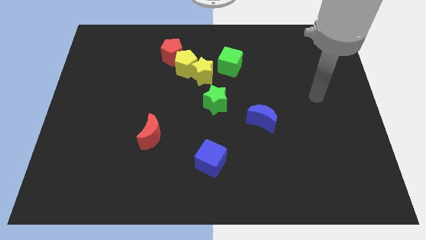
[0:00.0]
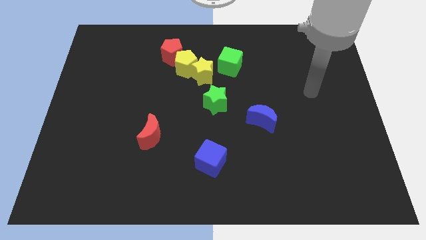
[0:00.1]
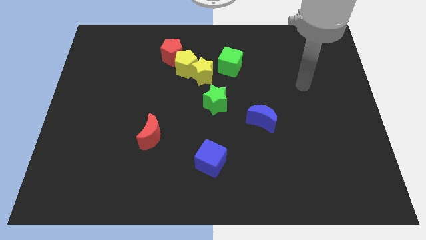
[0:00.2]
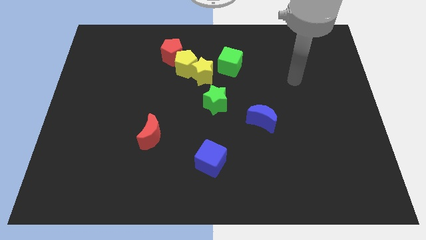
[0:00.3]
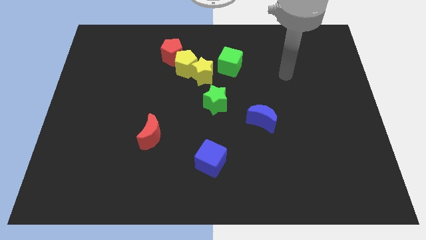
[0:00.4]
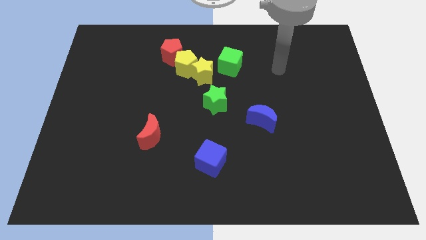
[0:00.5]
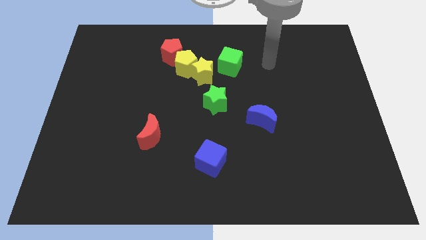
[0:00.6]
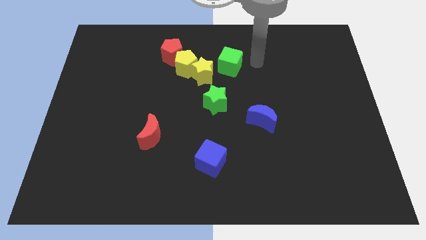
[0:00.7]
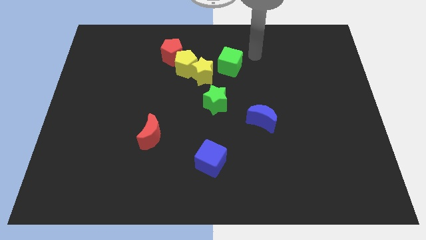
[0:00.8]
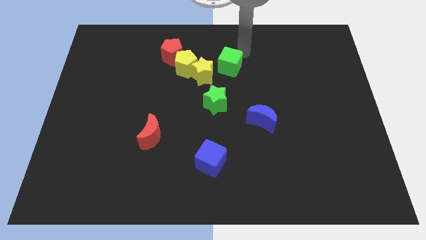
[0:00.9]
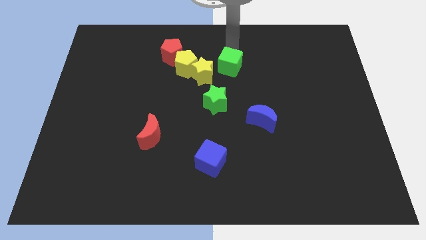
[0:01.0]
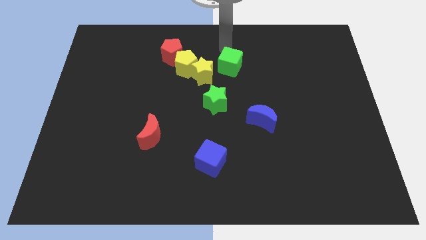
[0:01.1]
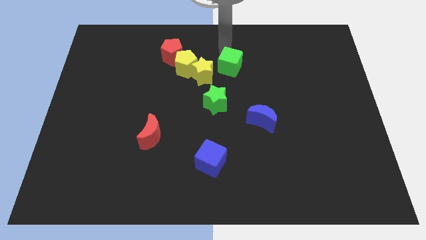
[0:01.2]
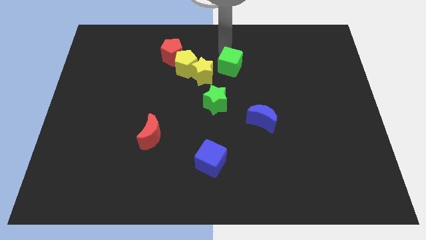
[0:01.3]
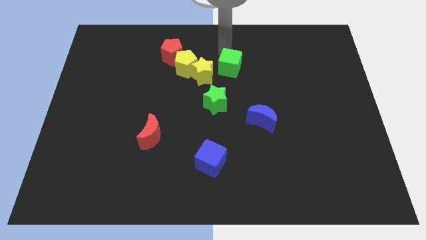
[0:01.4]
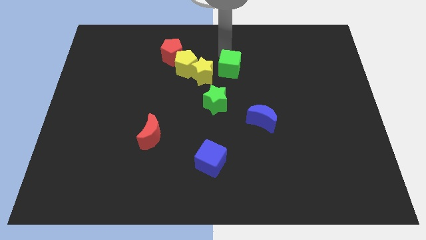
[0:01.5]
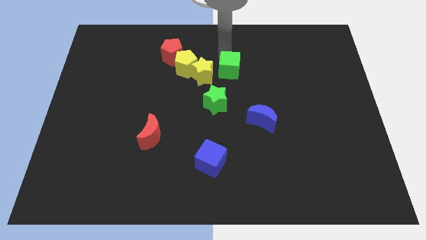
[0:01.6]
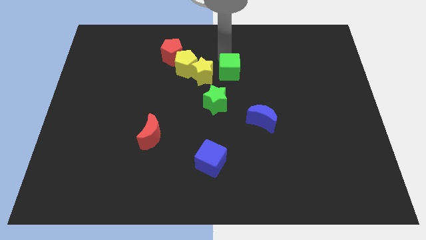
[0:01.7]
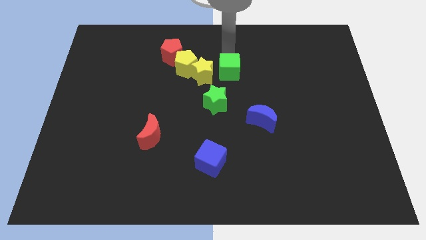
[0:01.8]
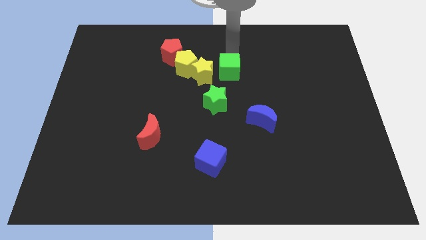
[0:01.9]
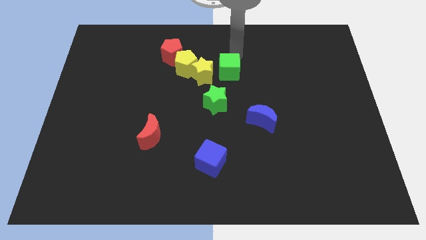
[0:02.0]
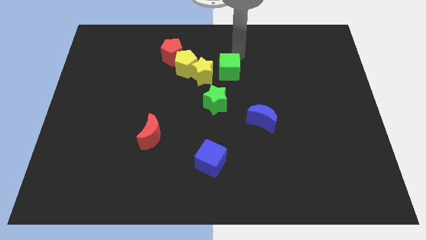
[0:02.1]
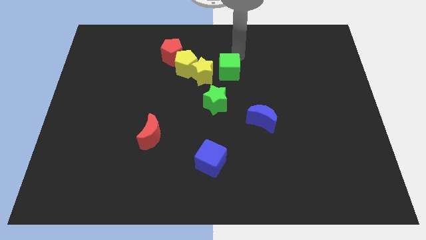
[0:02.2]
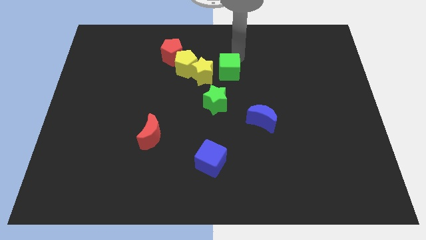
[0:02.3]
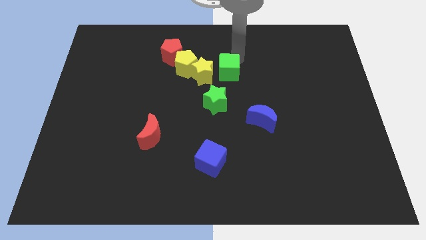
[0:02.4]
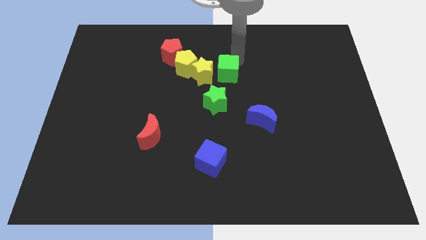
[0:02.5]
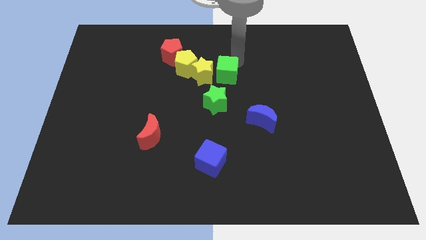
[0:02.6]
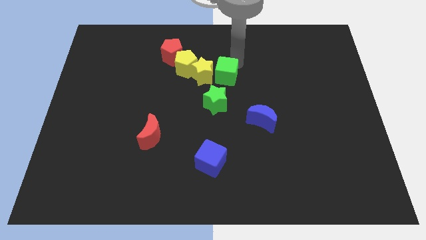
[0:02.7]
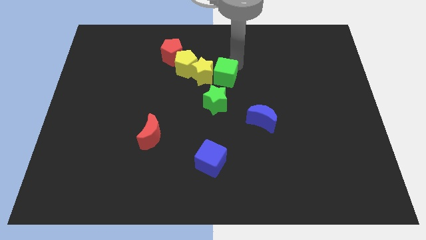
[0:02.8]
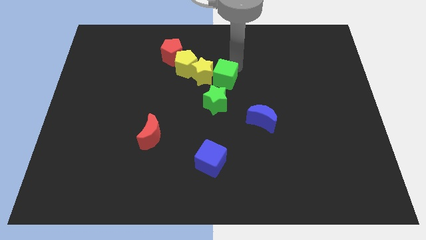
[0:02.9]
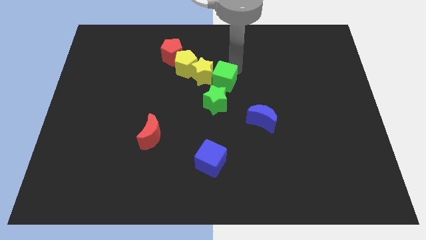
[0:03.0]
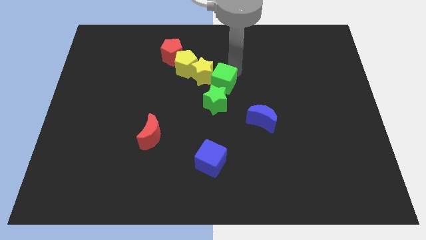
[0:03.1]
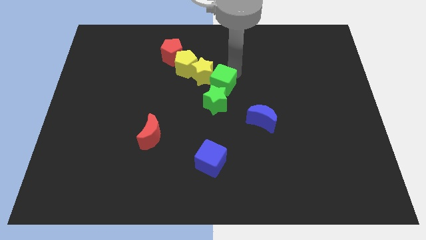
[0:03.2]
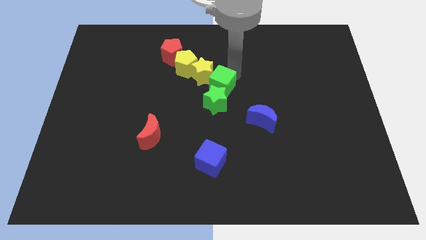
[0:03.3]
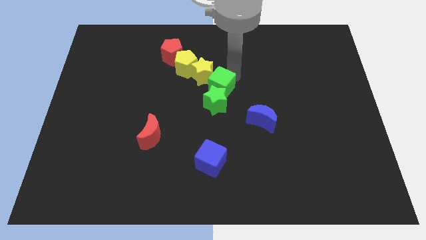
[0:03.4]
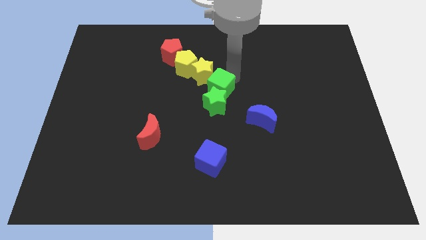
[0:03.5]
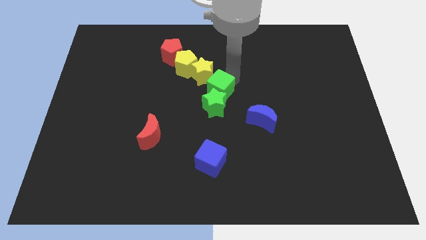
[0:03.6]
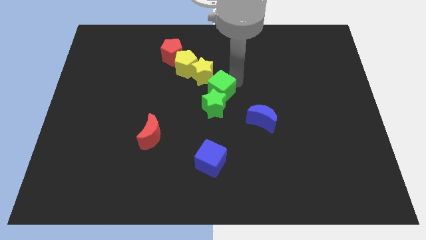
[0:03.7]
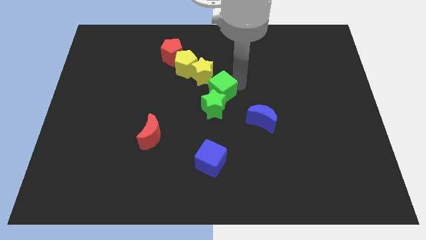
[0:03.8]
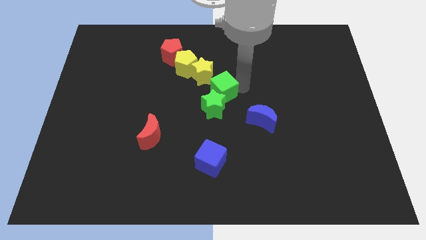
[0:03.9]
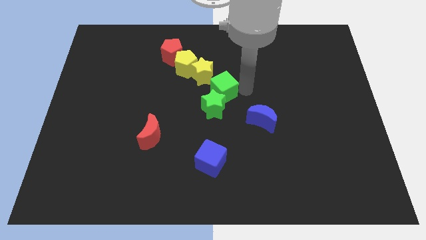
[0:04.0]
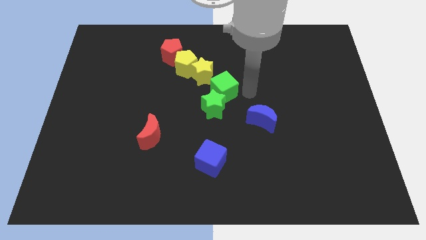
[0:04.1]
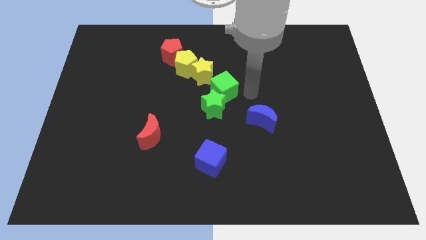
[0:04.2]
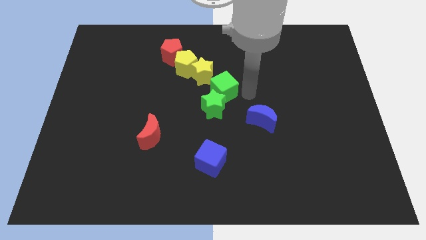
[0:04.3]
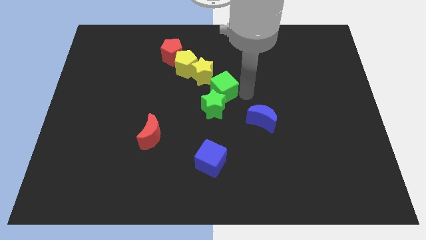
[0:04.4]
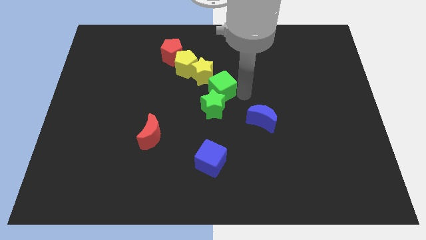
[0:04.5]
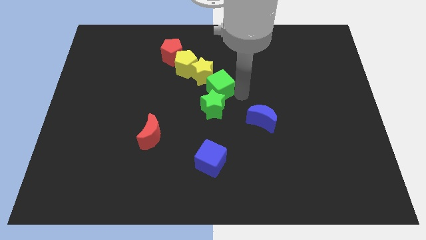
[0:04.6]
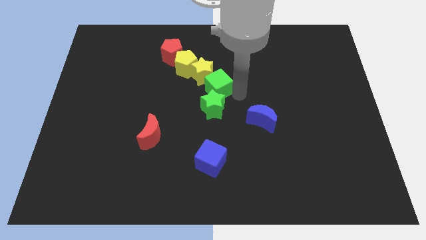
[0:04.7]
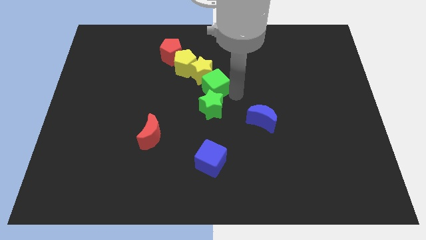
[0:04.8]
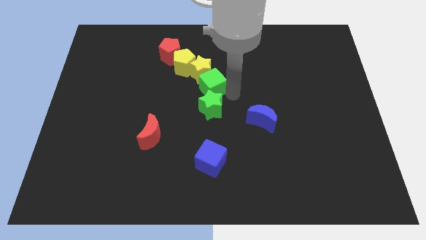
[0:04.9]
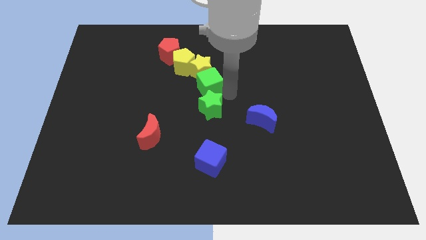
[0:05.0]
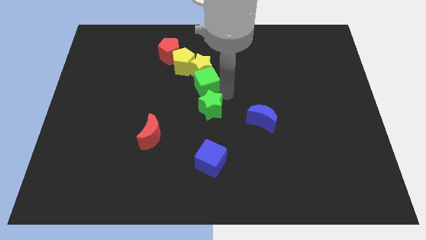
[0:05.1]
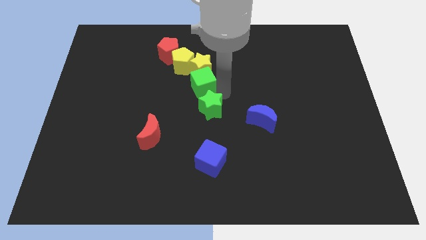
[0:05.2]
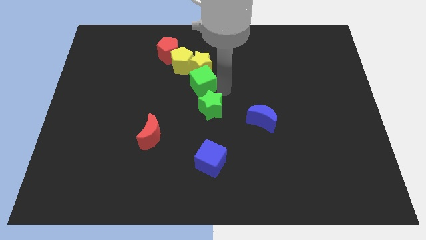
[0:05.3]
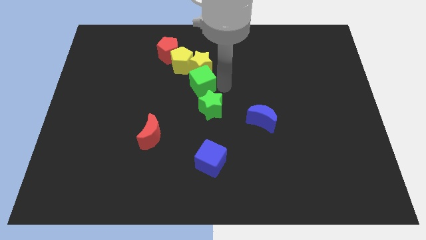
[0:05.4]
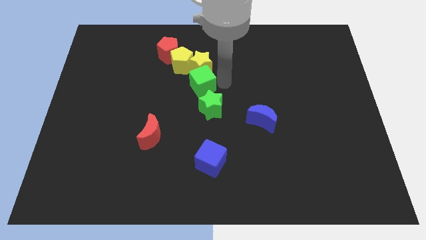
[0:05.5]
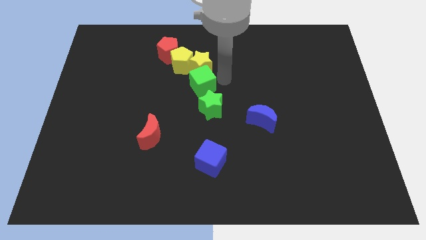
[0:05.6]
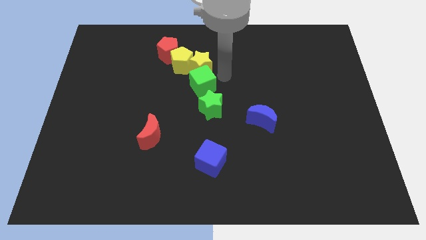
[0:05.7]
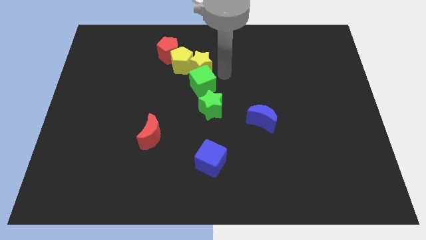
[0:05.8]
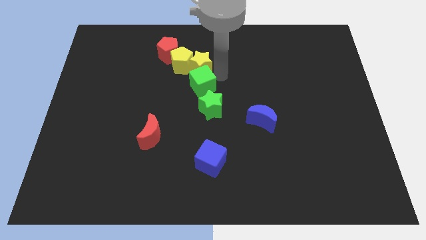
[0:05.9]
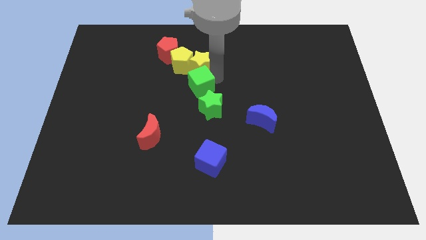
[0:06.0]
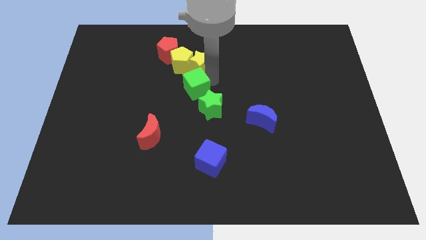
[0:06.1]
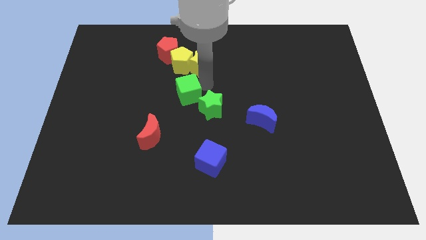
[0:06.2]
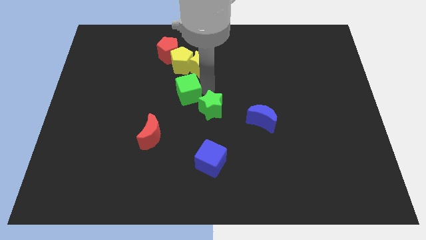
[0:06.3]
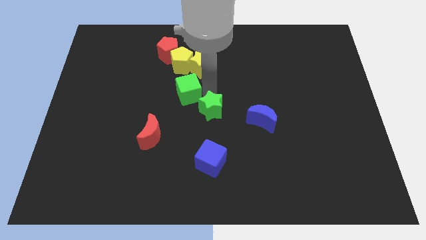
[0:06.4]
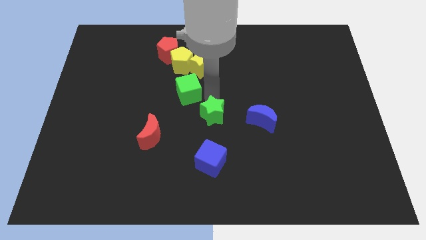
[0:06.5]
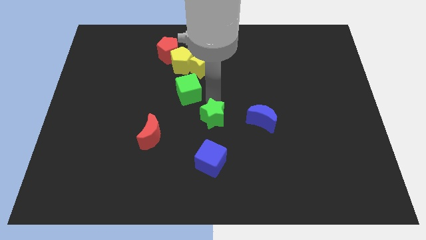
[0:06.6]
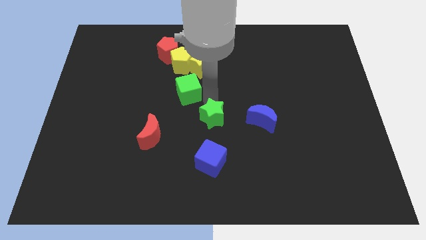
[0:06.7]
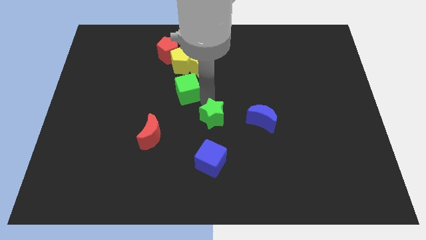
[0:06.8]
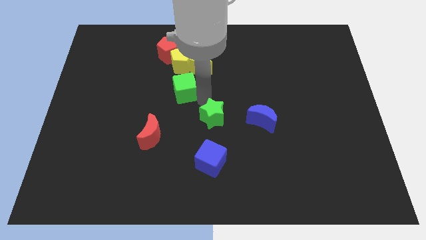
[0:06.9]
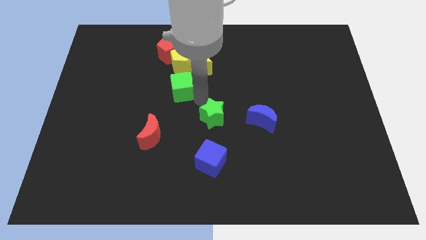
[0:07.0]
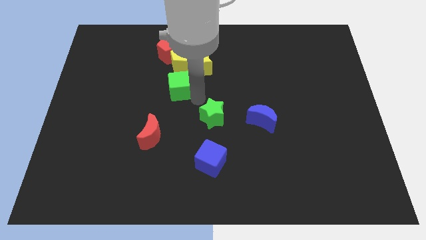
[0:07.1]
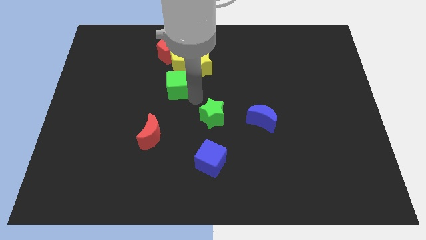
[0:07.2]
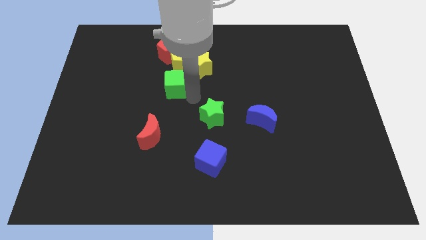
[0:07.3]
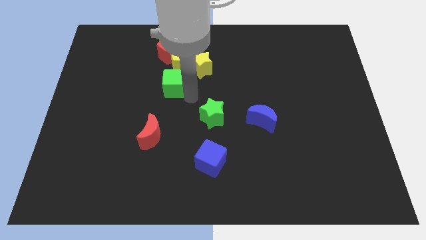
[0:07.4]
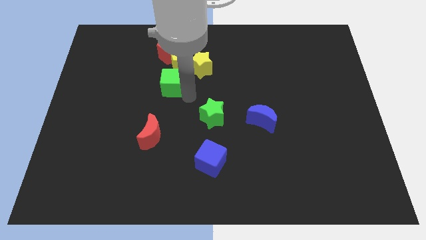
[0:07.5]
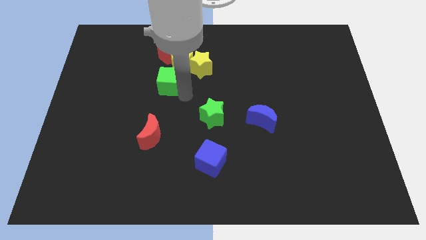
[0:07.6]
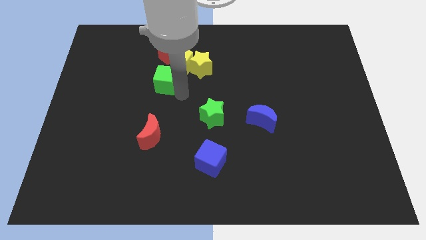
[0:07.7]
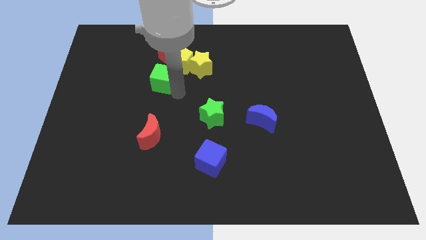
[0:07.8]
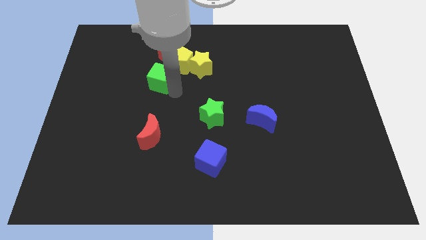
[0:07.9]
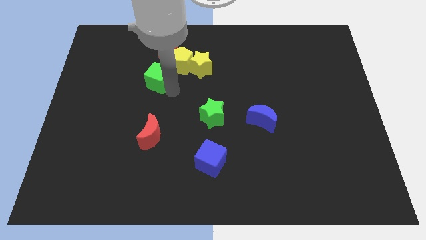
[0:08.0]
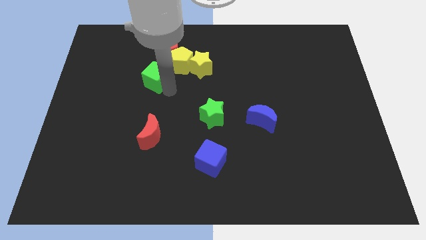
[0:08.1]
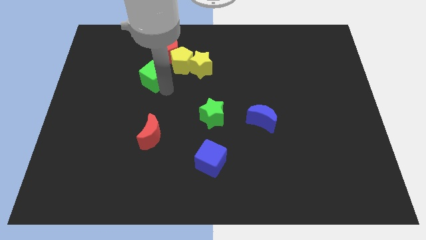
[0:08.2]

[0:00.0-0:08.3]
slide the green cube to the bottom left of the red pentagon
